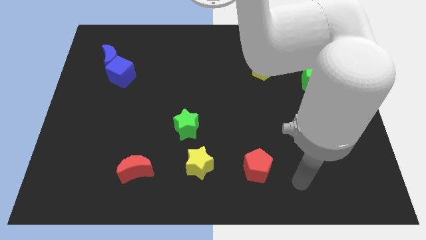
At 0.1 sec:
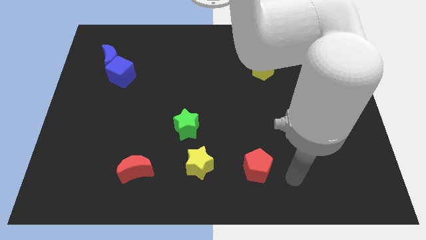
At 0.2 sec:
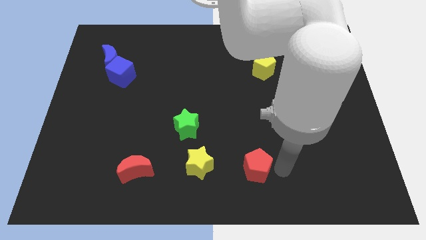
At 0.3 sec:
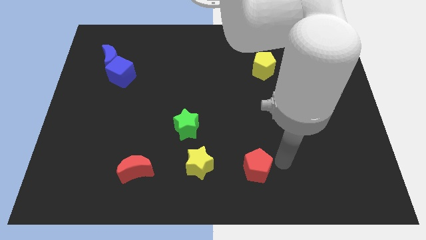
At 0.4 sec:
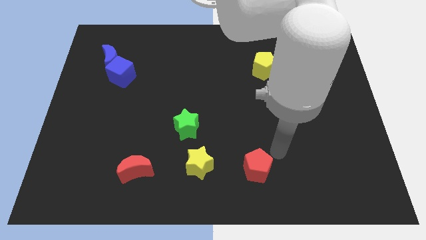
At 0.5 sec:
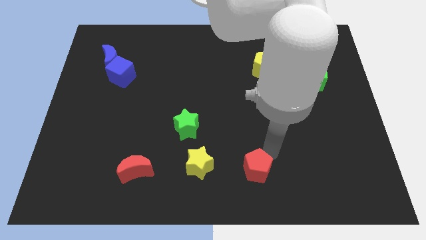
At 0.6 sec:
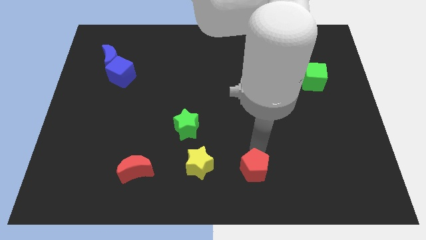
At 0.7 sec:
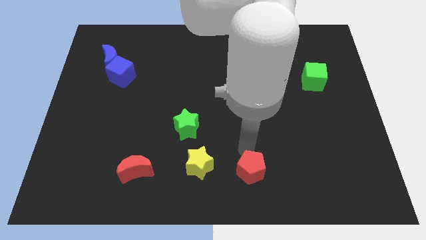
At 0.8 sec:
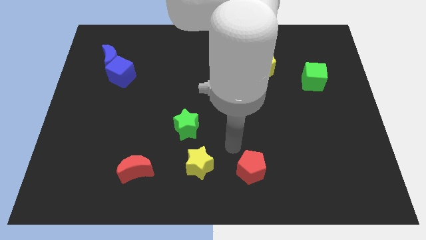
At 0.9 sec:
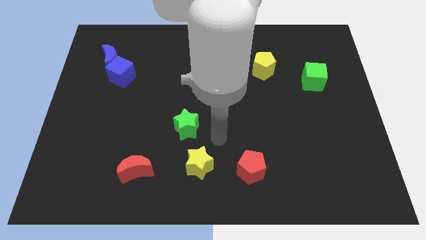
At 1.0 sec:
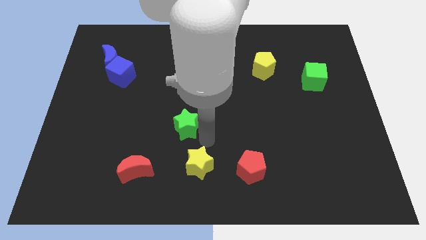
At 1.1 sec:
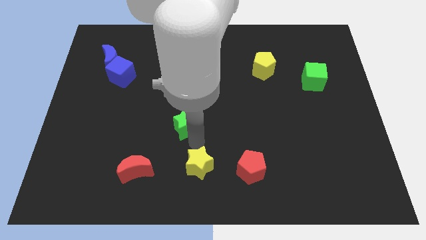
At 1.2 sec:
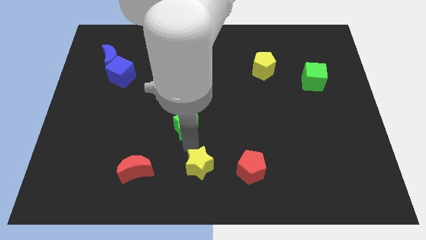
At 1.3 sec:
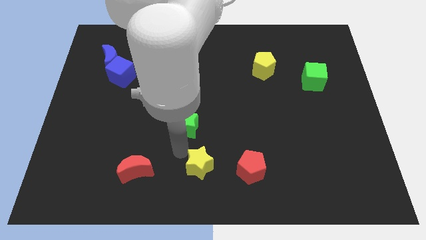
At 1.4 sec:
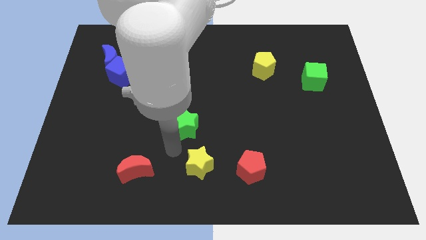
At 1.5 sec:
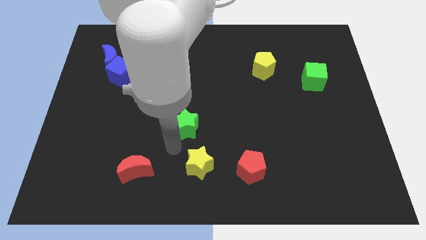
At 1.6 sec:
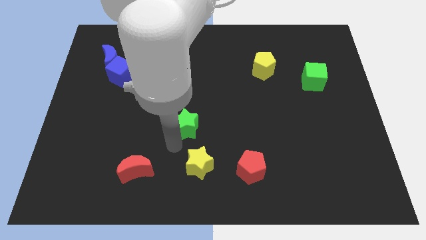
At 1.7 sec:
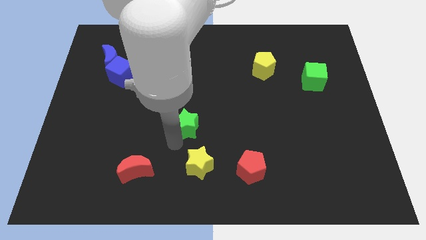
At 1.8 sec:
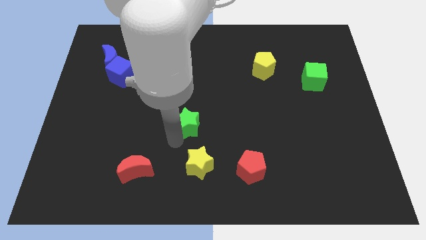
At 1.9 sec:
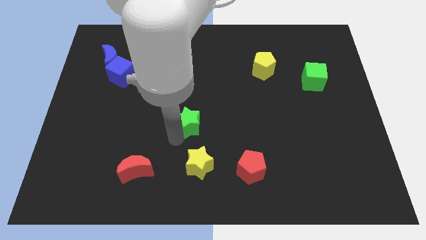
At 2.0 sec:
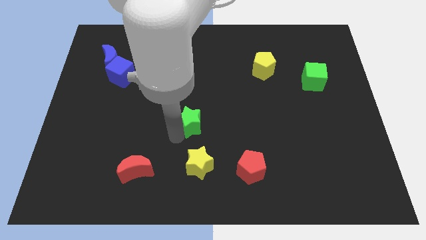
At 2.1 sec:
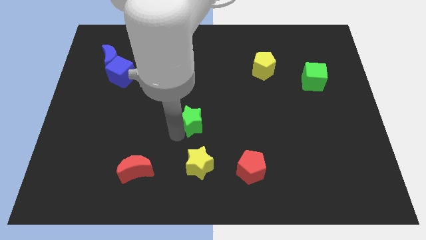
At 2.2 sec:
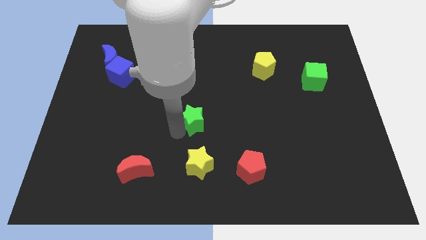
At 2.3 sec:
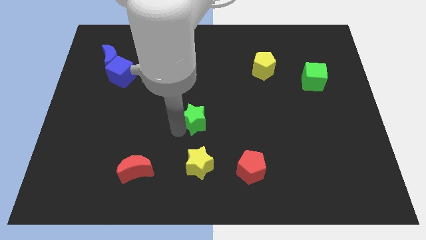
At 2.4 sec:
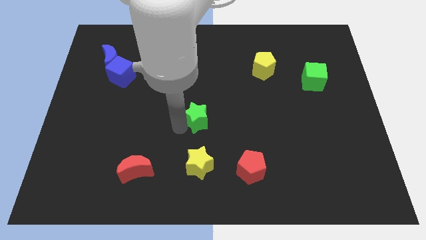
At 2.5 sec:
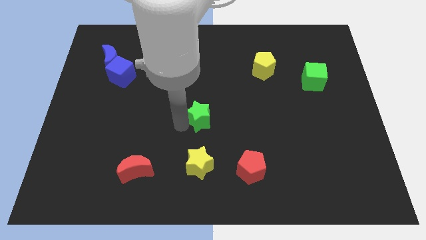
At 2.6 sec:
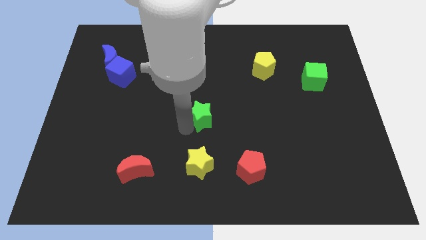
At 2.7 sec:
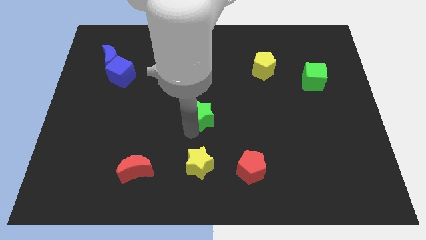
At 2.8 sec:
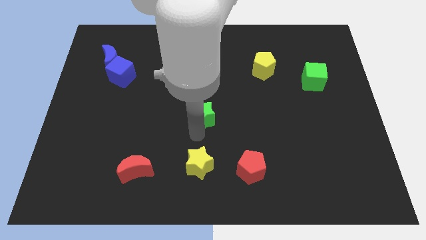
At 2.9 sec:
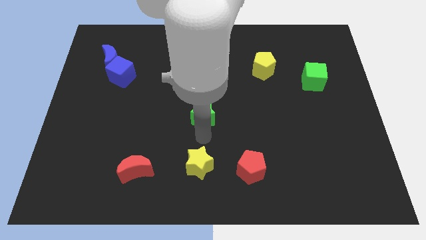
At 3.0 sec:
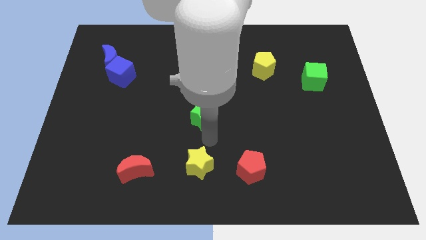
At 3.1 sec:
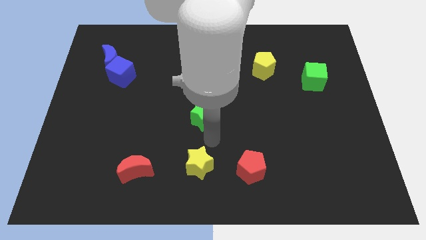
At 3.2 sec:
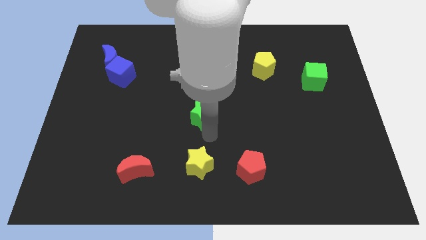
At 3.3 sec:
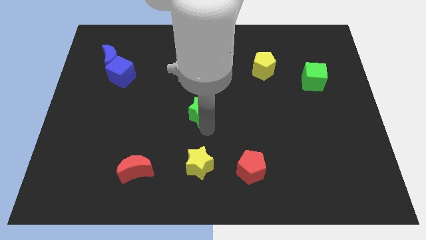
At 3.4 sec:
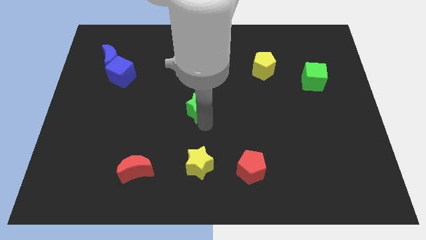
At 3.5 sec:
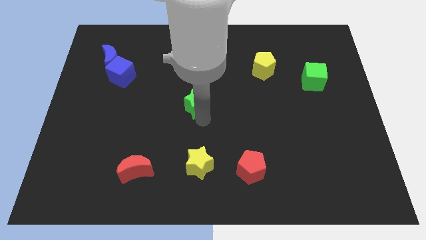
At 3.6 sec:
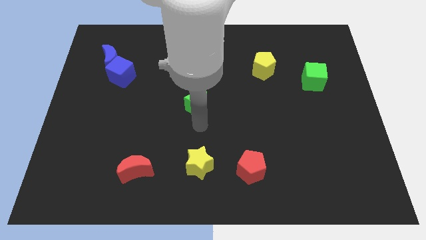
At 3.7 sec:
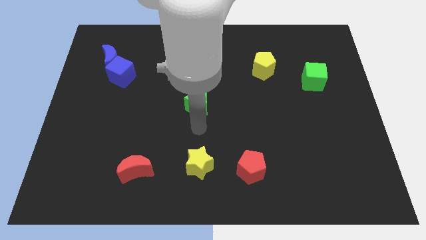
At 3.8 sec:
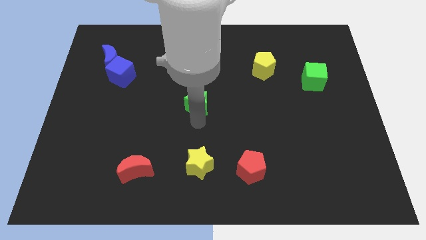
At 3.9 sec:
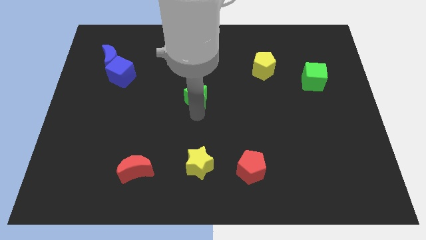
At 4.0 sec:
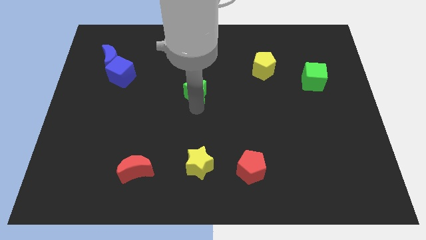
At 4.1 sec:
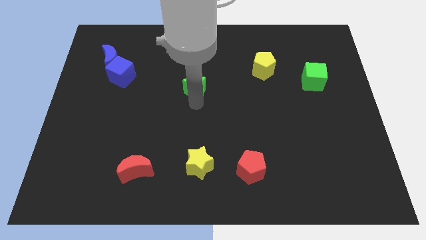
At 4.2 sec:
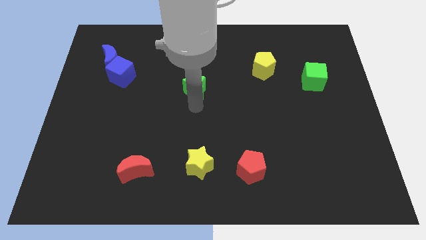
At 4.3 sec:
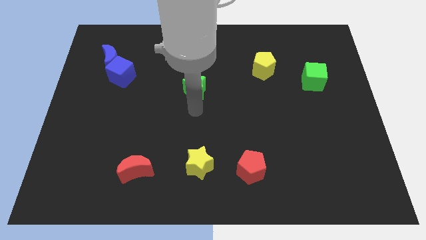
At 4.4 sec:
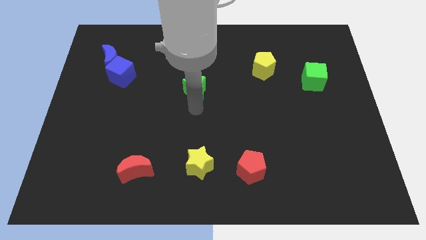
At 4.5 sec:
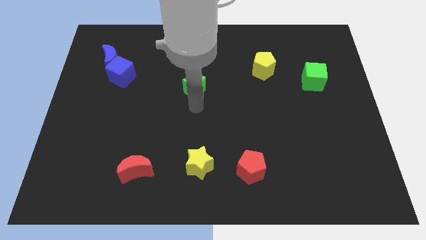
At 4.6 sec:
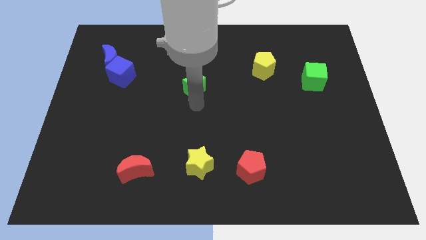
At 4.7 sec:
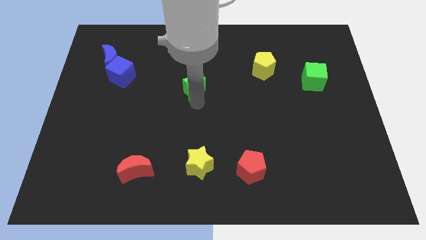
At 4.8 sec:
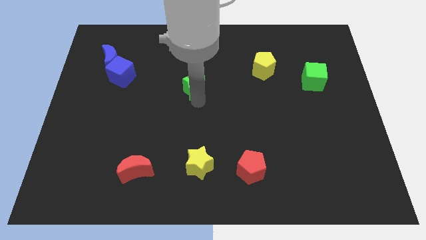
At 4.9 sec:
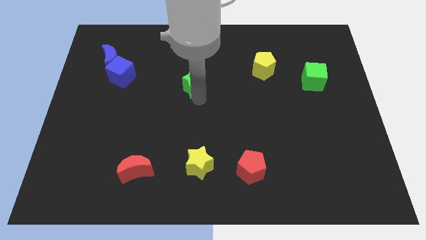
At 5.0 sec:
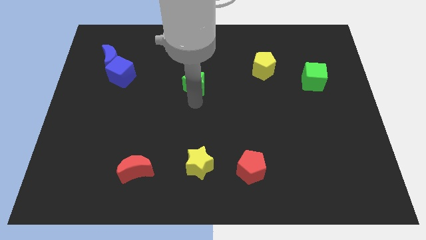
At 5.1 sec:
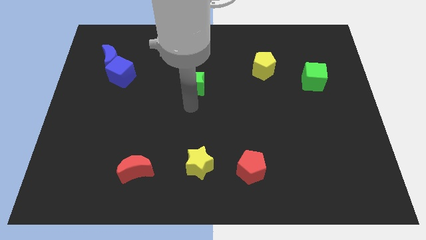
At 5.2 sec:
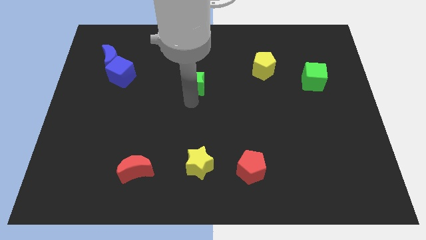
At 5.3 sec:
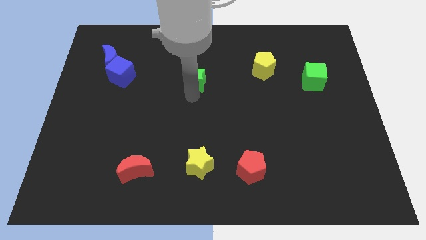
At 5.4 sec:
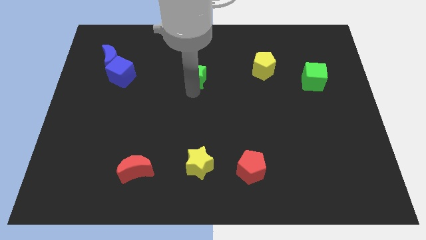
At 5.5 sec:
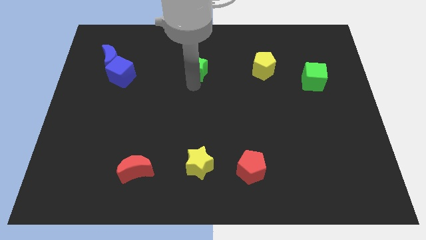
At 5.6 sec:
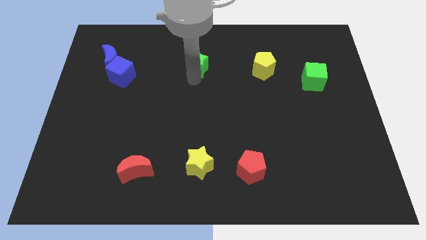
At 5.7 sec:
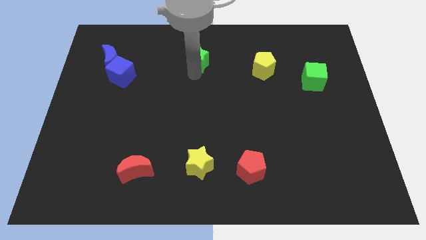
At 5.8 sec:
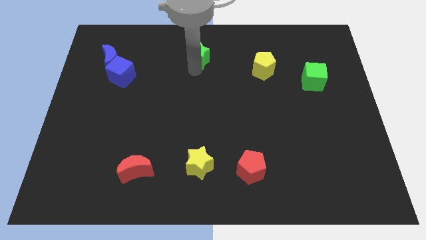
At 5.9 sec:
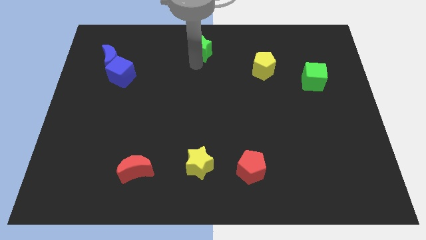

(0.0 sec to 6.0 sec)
slide the green star to the top

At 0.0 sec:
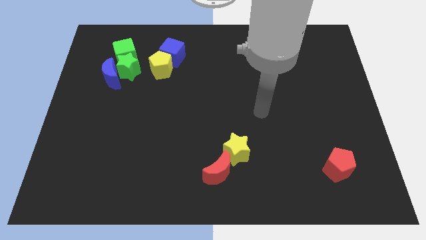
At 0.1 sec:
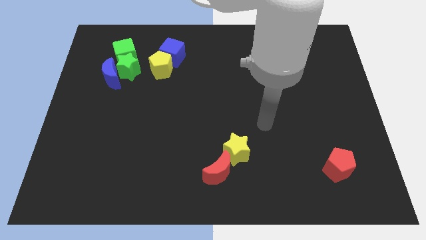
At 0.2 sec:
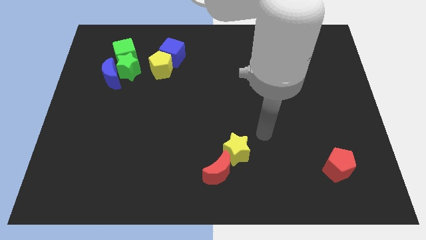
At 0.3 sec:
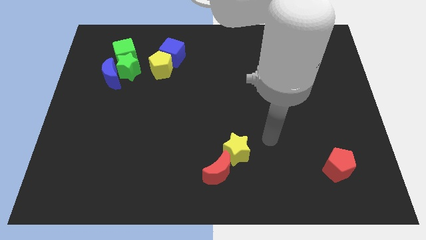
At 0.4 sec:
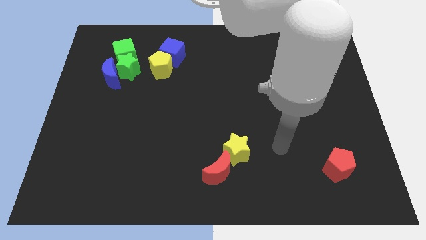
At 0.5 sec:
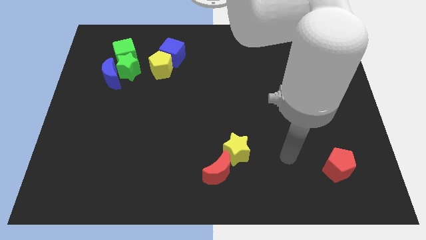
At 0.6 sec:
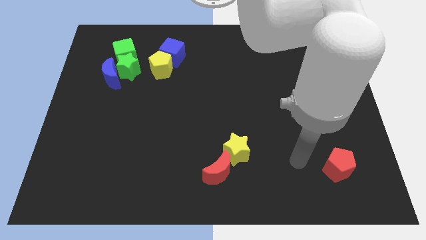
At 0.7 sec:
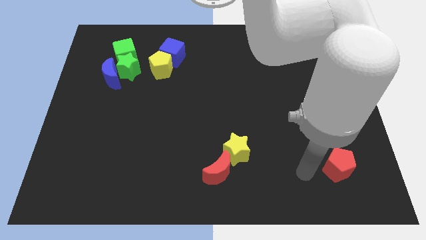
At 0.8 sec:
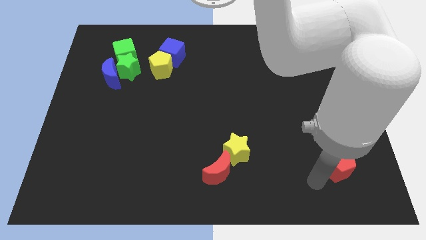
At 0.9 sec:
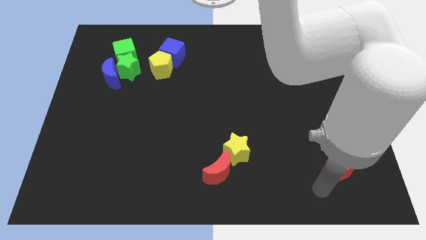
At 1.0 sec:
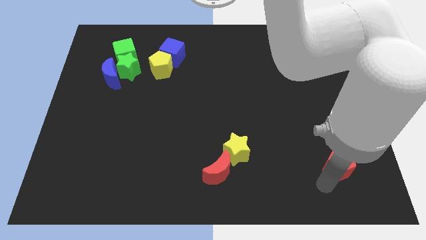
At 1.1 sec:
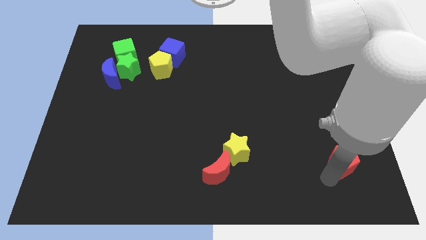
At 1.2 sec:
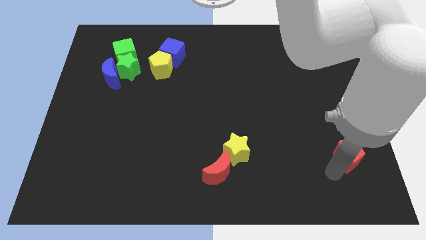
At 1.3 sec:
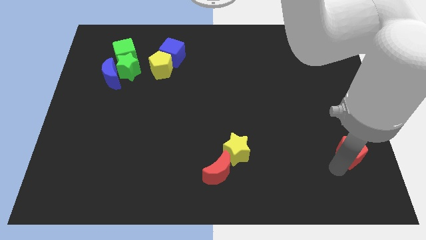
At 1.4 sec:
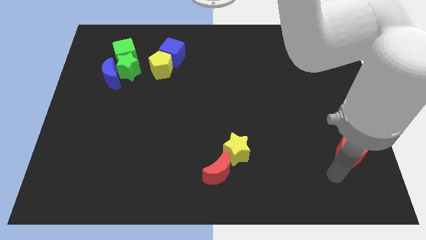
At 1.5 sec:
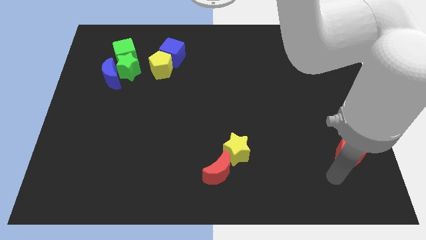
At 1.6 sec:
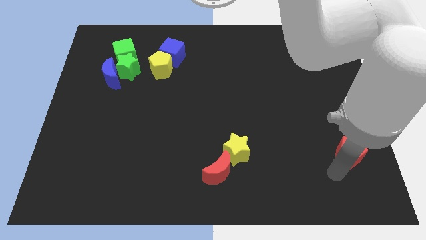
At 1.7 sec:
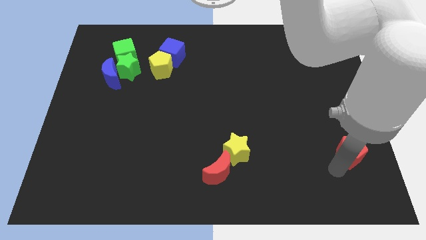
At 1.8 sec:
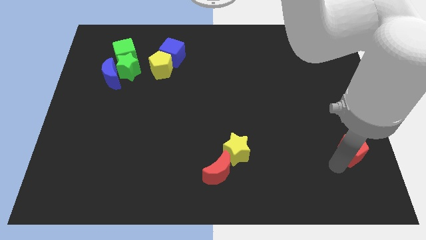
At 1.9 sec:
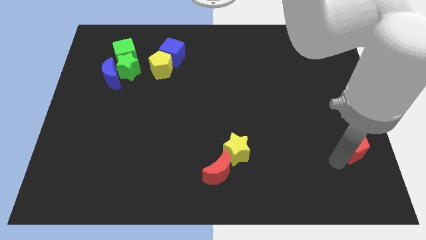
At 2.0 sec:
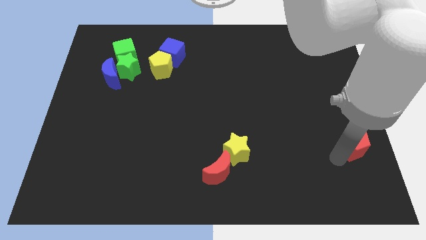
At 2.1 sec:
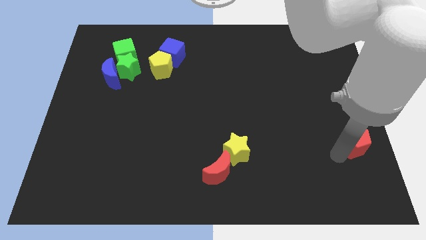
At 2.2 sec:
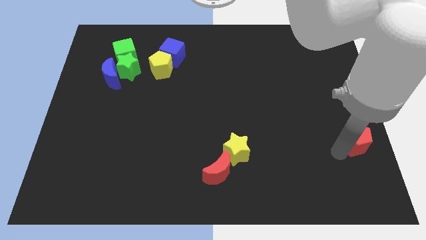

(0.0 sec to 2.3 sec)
put the red pentagon to the right side
